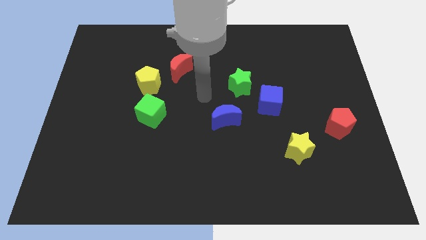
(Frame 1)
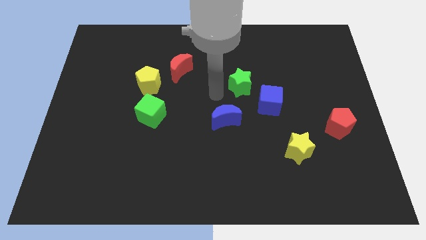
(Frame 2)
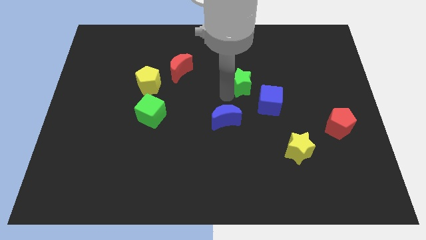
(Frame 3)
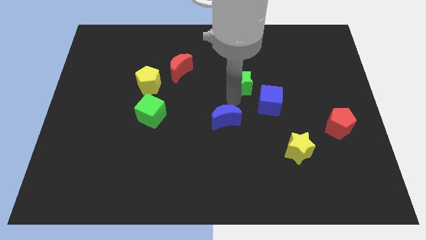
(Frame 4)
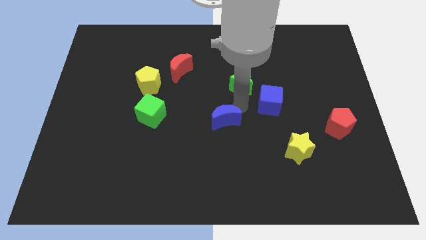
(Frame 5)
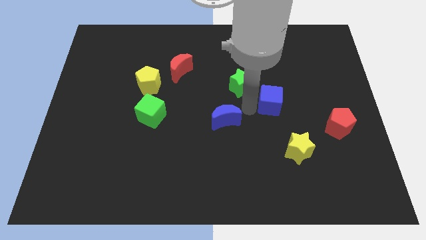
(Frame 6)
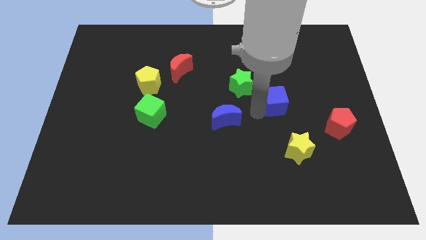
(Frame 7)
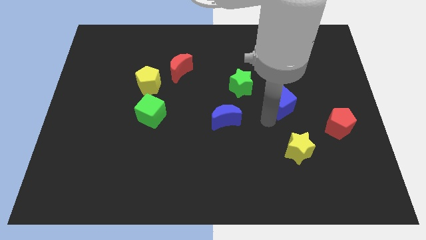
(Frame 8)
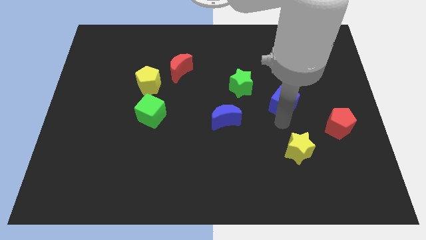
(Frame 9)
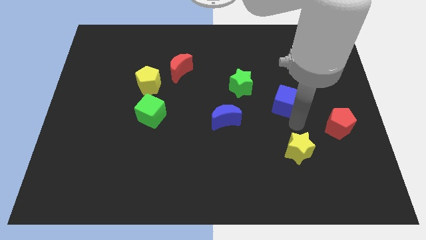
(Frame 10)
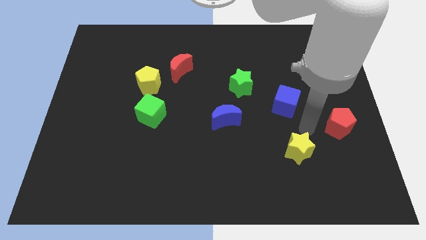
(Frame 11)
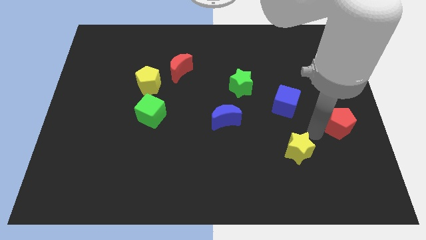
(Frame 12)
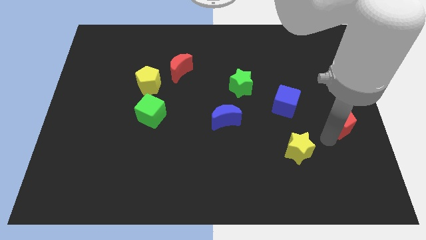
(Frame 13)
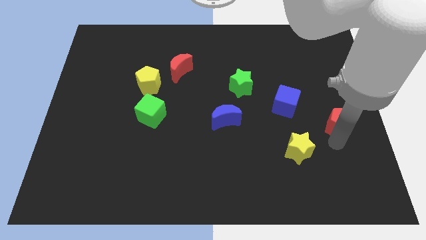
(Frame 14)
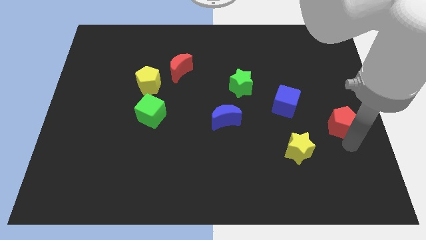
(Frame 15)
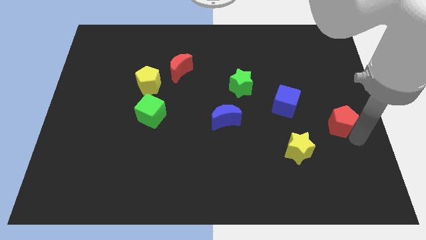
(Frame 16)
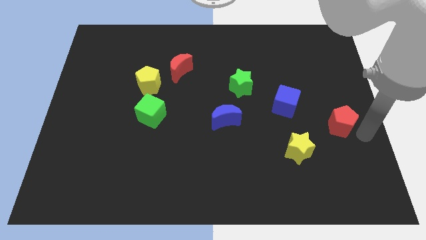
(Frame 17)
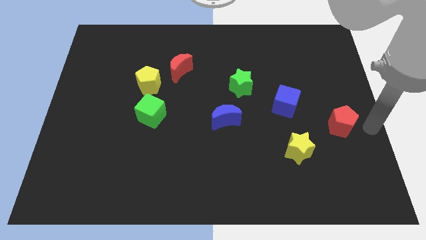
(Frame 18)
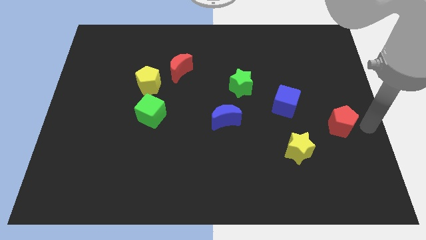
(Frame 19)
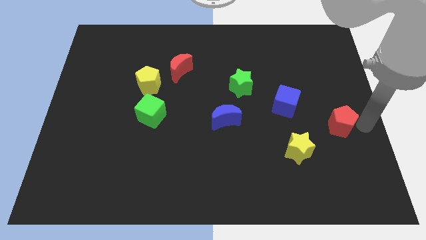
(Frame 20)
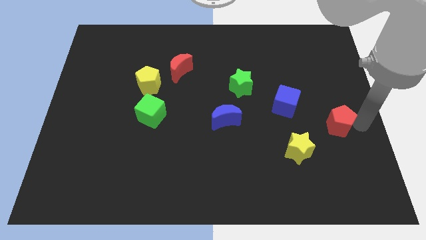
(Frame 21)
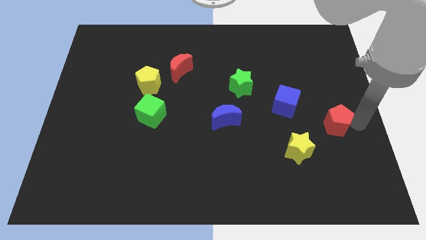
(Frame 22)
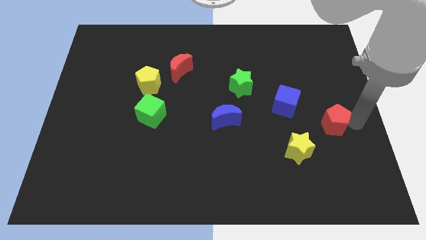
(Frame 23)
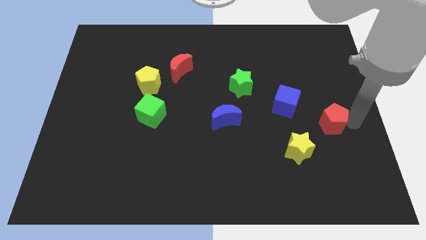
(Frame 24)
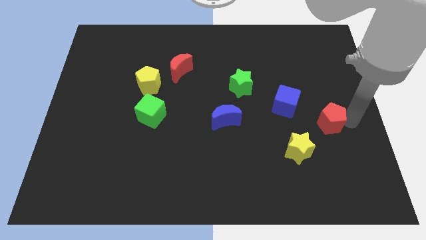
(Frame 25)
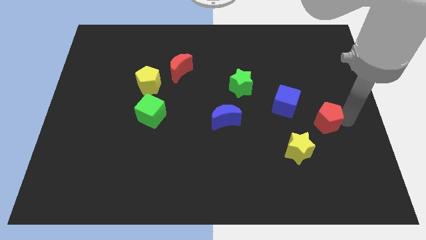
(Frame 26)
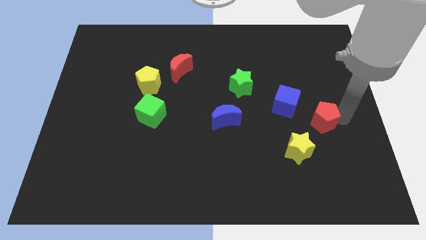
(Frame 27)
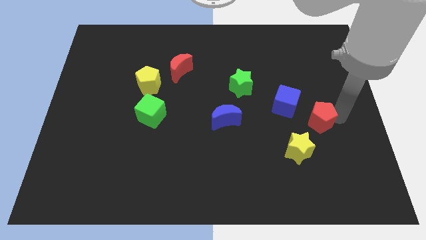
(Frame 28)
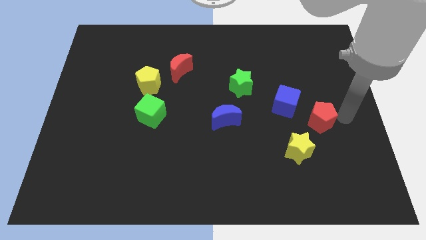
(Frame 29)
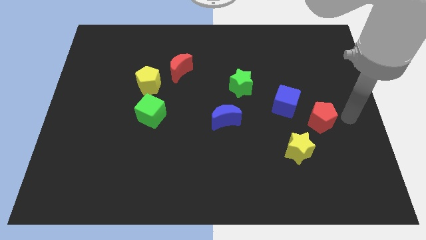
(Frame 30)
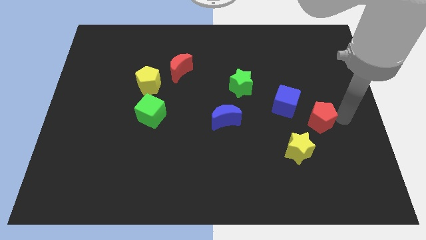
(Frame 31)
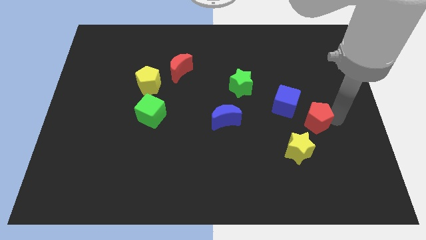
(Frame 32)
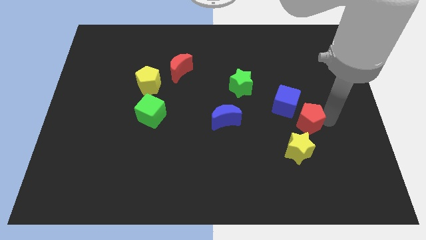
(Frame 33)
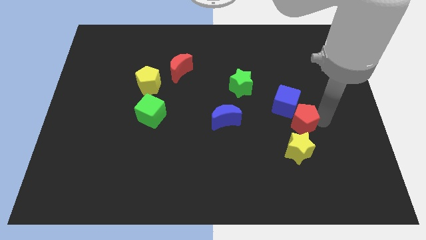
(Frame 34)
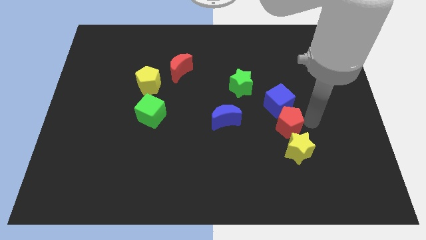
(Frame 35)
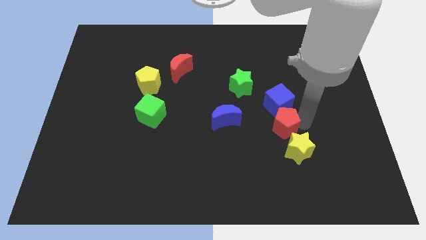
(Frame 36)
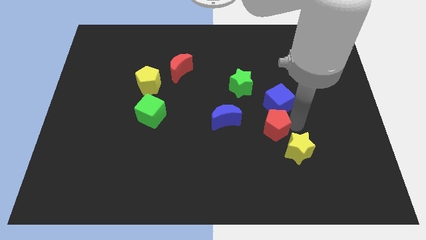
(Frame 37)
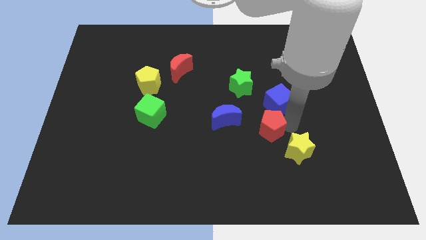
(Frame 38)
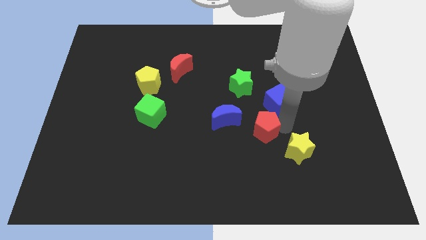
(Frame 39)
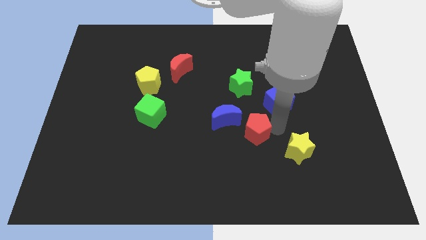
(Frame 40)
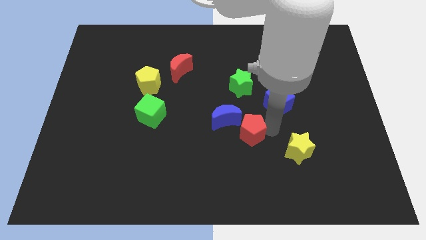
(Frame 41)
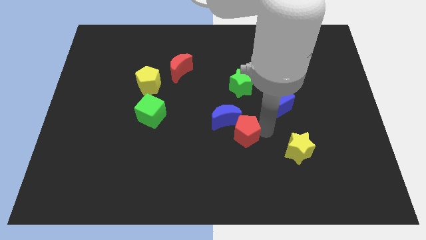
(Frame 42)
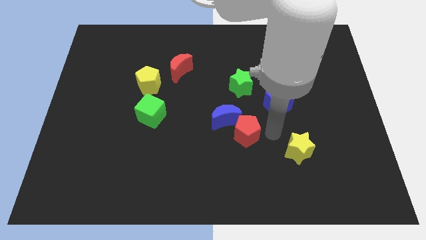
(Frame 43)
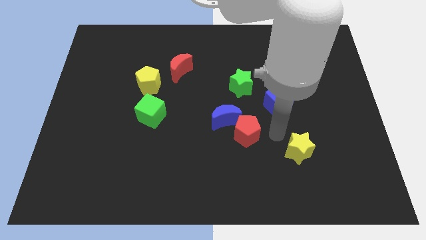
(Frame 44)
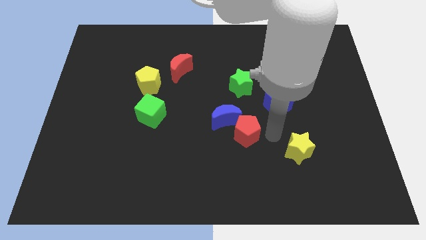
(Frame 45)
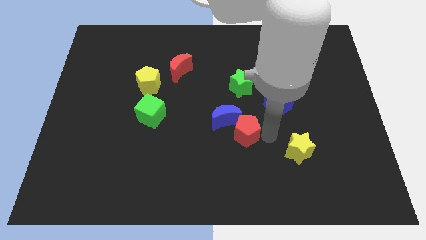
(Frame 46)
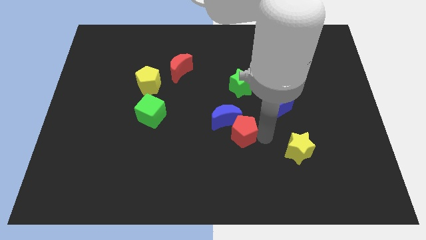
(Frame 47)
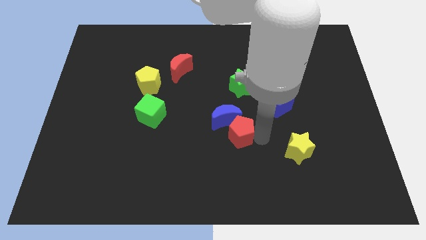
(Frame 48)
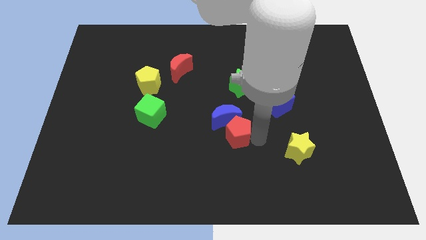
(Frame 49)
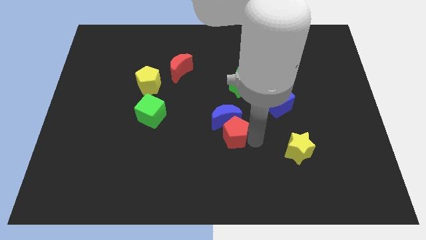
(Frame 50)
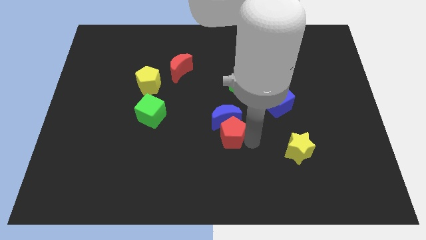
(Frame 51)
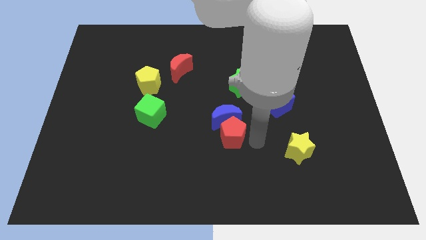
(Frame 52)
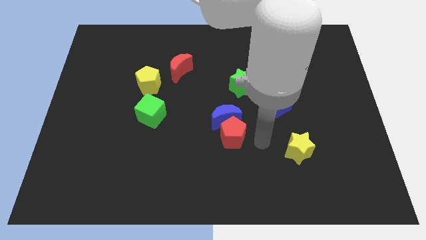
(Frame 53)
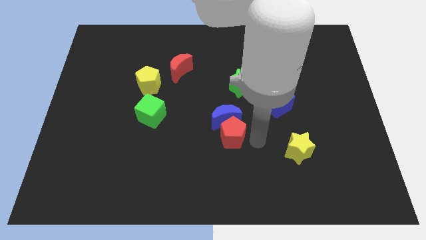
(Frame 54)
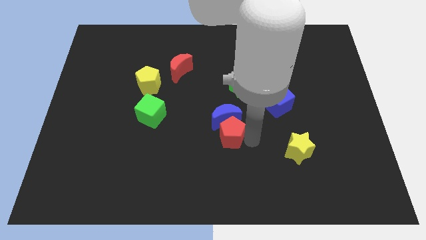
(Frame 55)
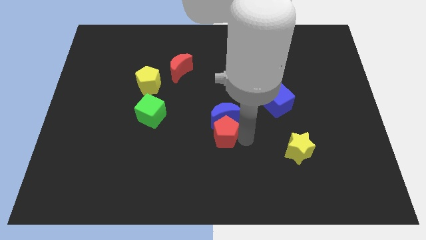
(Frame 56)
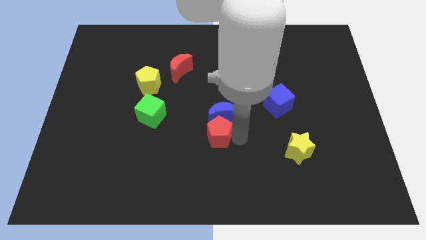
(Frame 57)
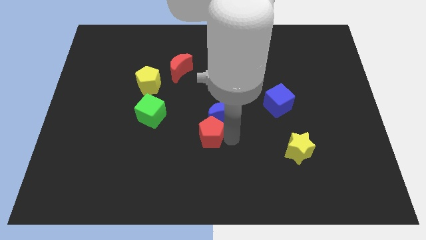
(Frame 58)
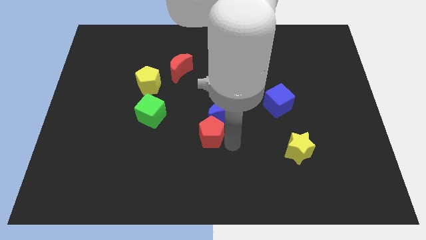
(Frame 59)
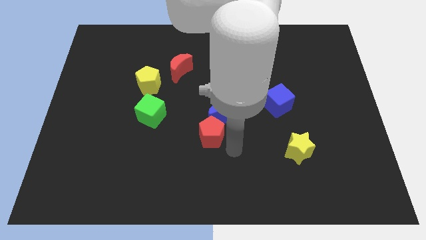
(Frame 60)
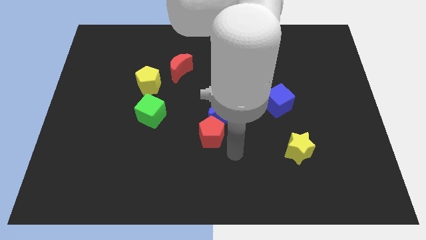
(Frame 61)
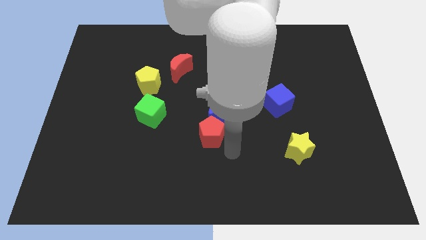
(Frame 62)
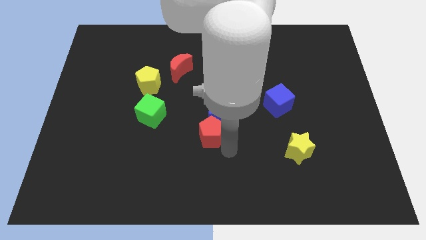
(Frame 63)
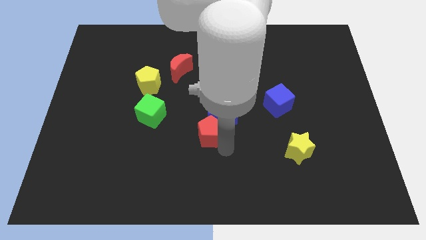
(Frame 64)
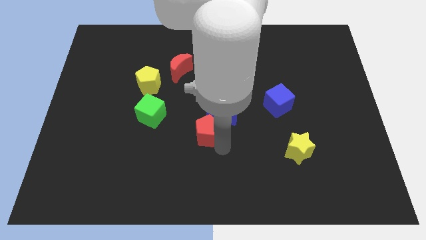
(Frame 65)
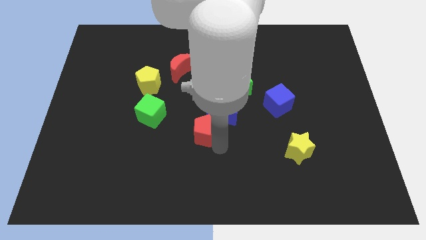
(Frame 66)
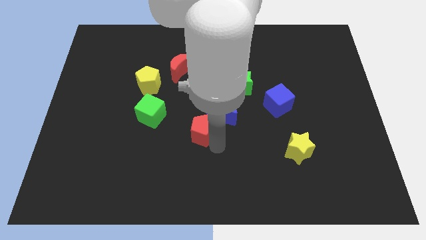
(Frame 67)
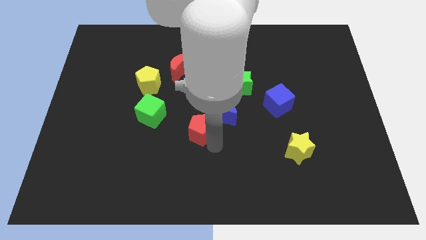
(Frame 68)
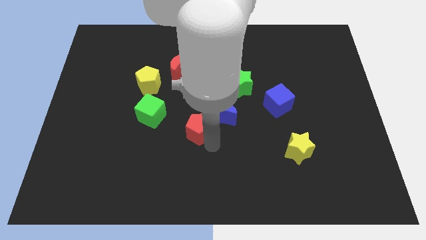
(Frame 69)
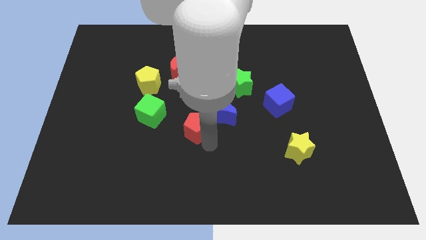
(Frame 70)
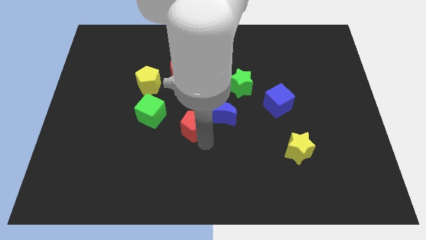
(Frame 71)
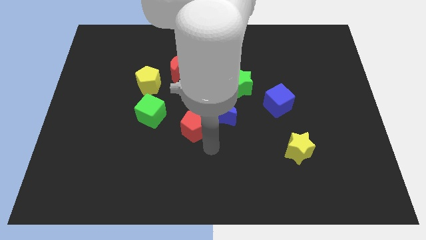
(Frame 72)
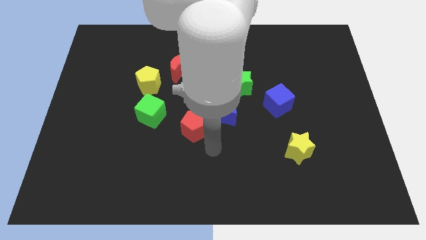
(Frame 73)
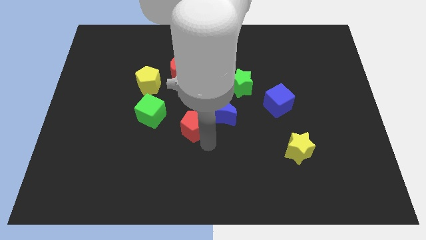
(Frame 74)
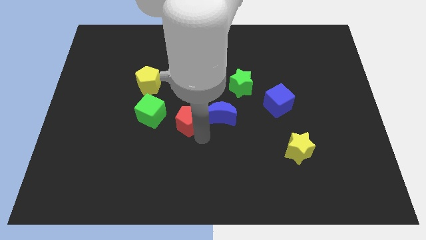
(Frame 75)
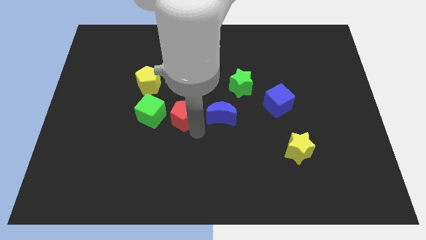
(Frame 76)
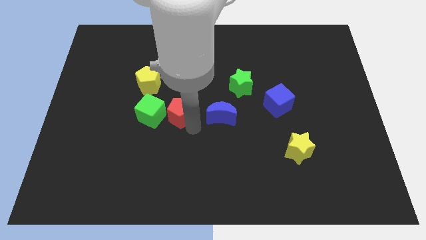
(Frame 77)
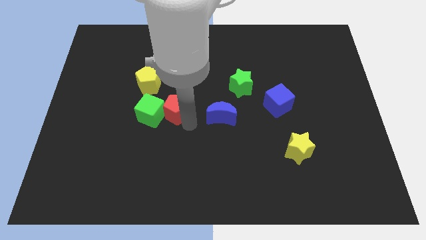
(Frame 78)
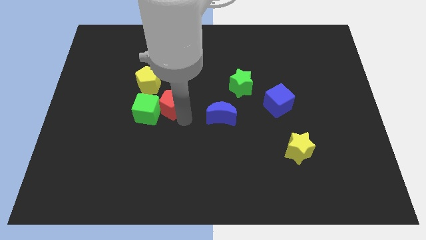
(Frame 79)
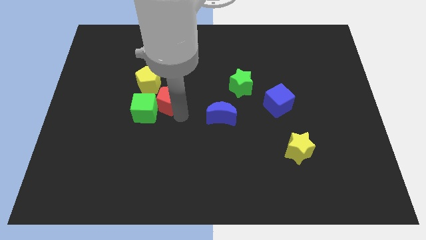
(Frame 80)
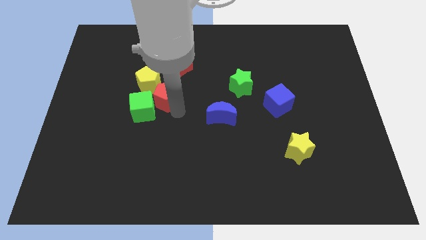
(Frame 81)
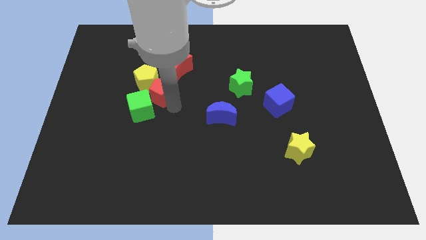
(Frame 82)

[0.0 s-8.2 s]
move the red pentagon to the yellow pentagon
